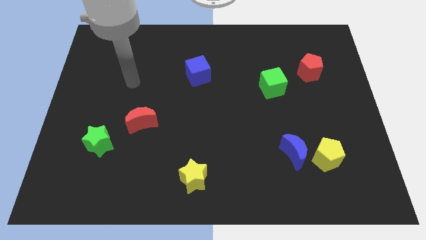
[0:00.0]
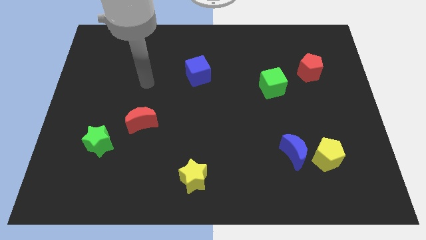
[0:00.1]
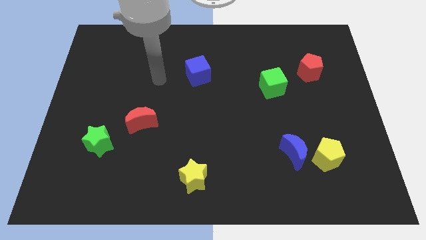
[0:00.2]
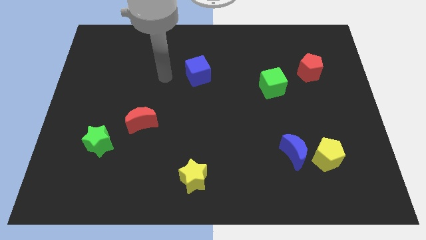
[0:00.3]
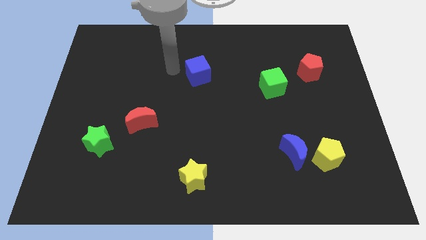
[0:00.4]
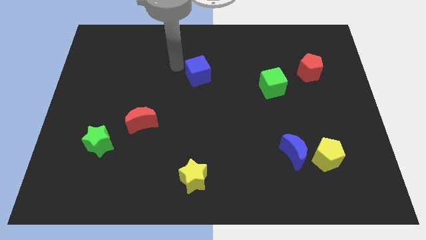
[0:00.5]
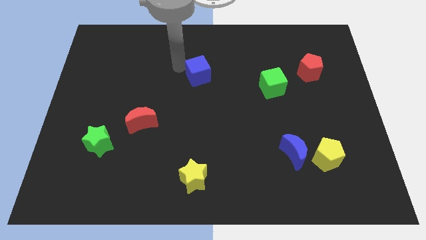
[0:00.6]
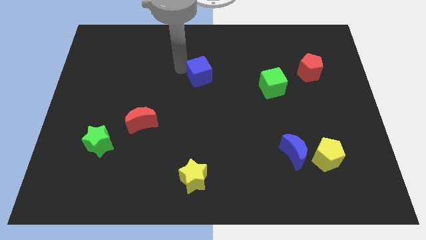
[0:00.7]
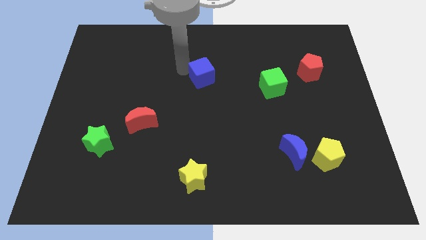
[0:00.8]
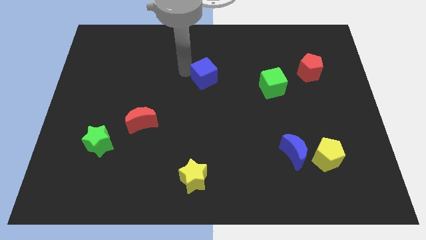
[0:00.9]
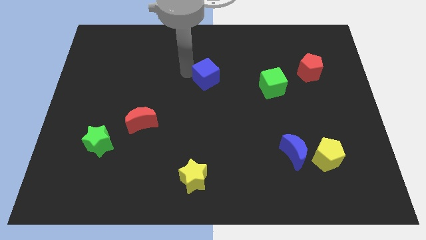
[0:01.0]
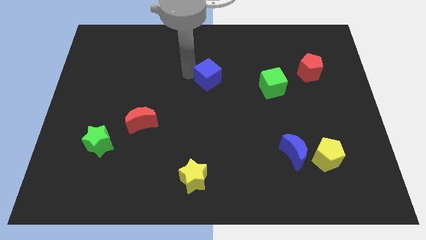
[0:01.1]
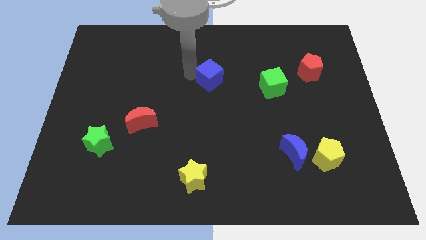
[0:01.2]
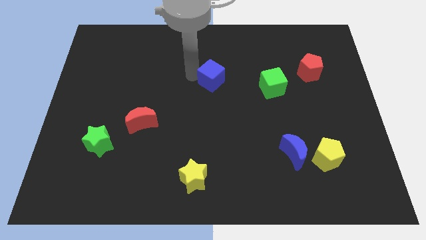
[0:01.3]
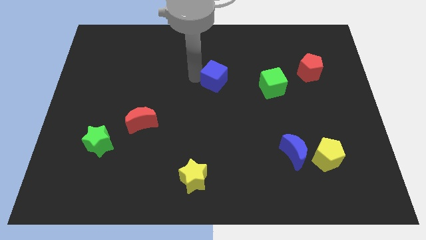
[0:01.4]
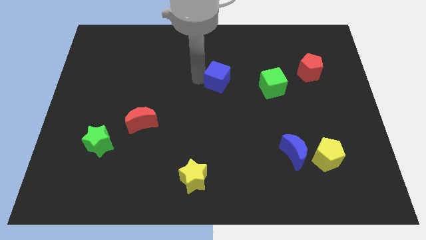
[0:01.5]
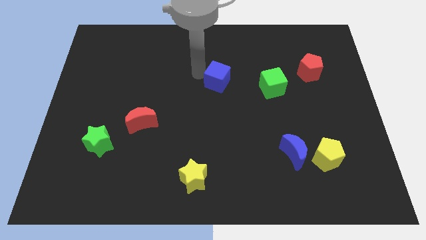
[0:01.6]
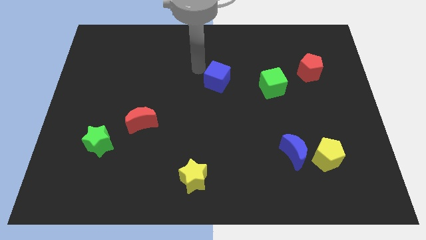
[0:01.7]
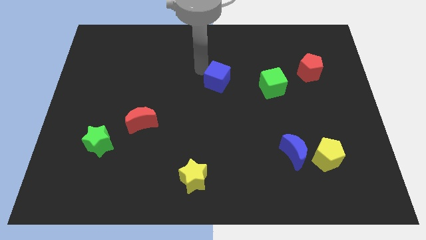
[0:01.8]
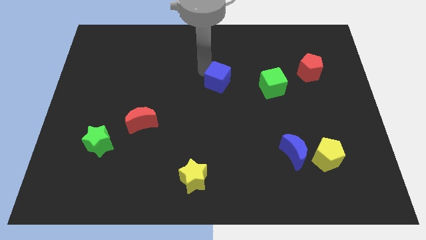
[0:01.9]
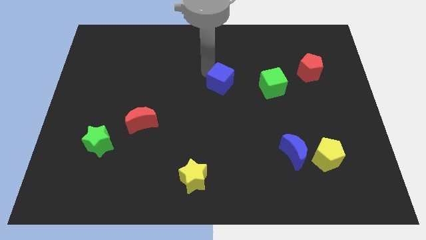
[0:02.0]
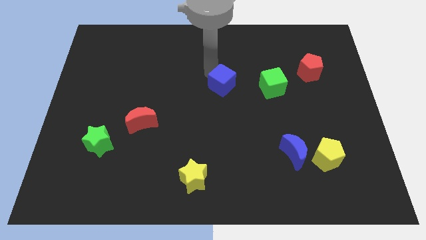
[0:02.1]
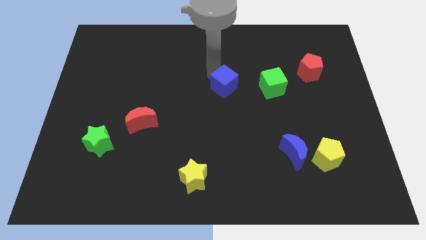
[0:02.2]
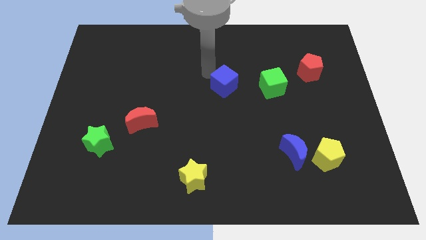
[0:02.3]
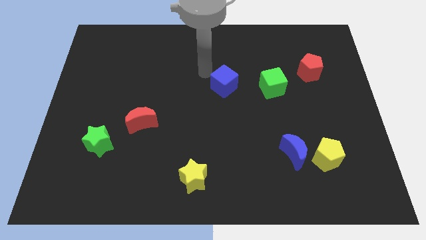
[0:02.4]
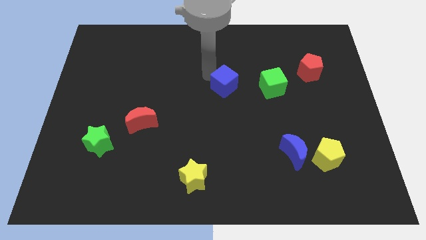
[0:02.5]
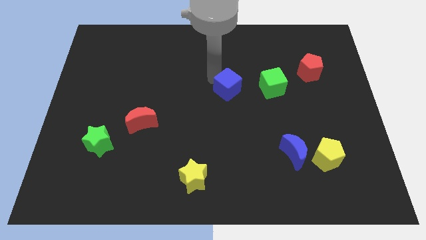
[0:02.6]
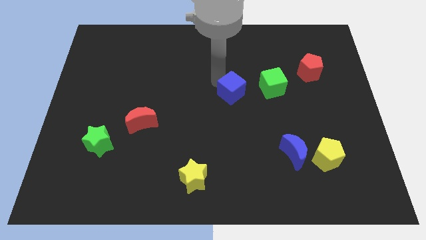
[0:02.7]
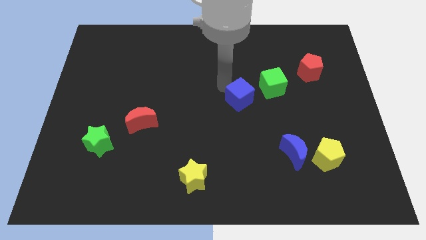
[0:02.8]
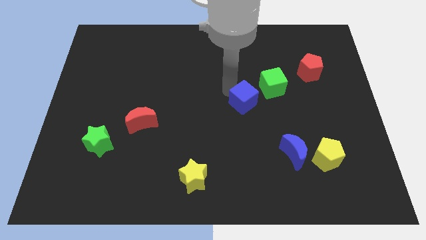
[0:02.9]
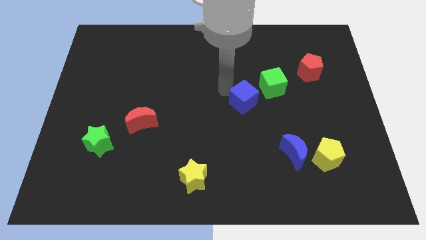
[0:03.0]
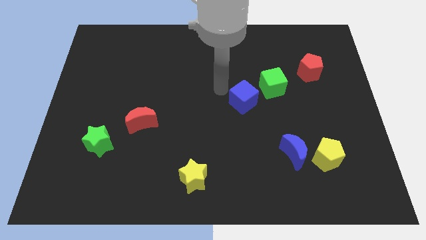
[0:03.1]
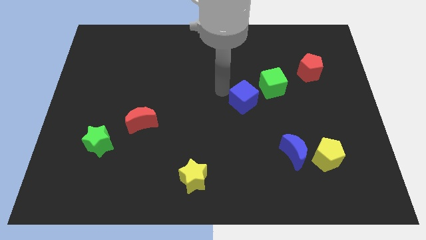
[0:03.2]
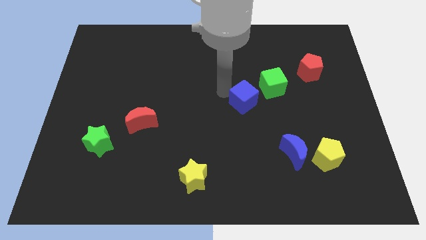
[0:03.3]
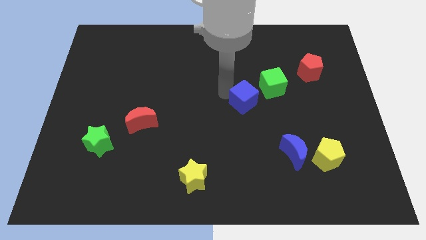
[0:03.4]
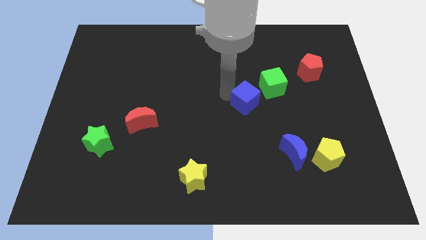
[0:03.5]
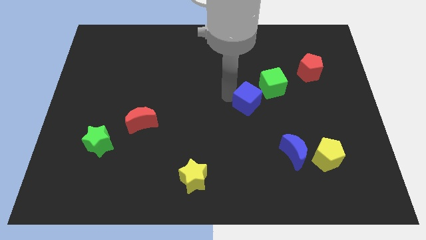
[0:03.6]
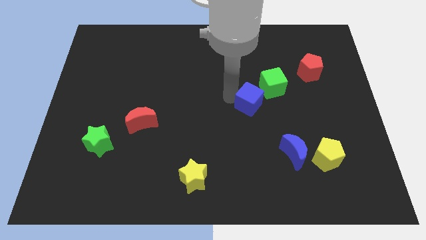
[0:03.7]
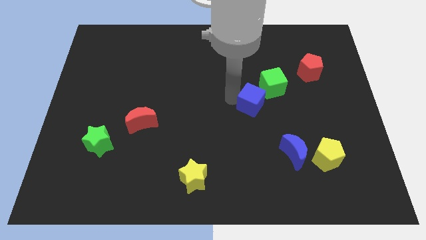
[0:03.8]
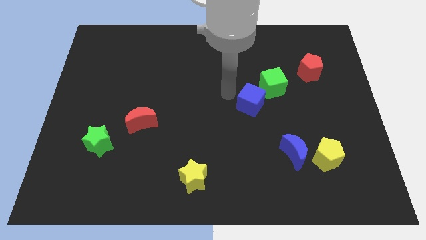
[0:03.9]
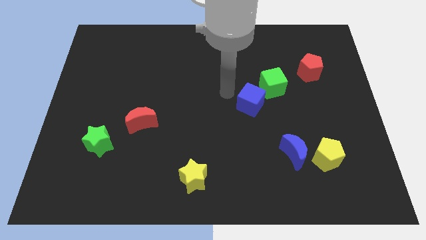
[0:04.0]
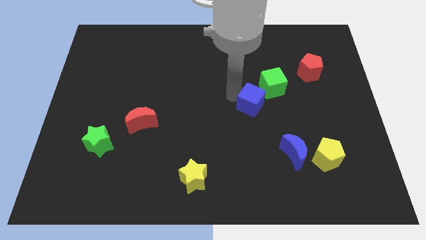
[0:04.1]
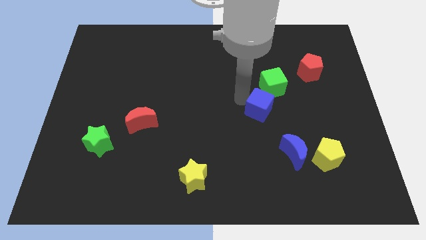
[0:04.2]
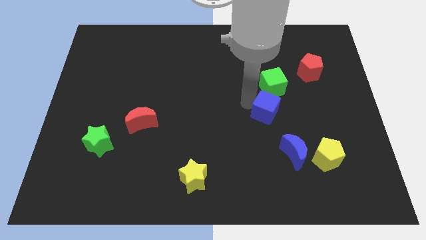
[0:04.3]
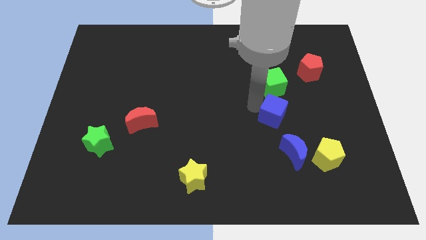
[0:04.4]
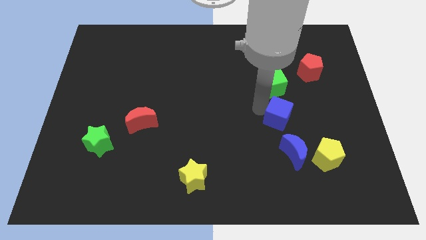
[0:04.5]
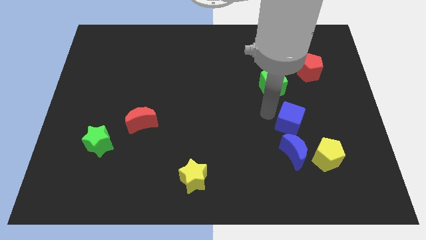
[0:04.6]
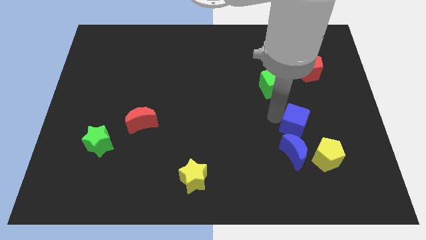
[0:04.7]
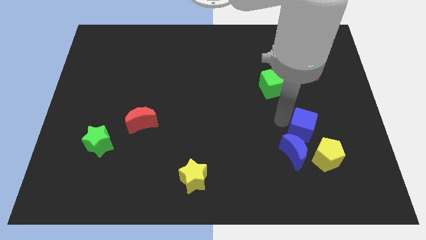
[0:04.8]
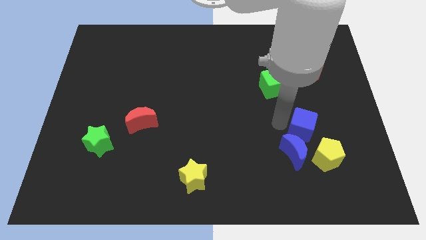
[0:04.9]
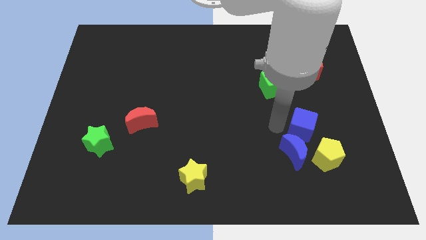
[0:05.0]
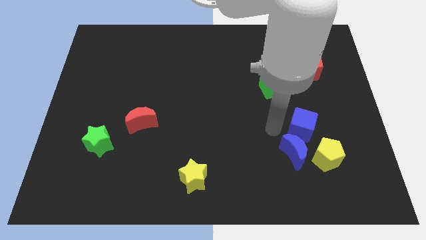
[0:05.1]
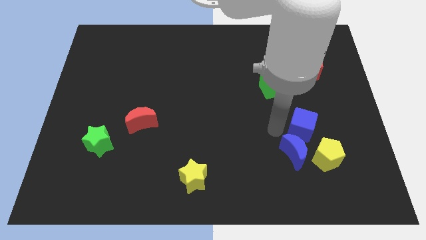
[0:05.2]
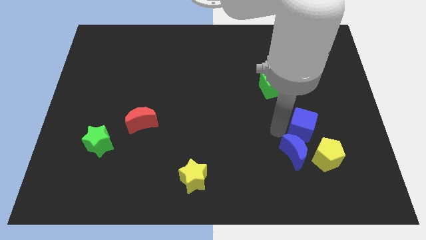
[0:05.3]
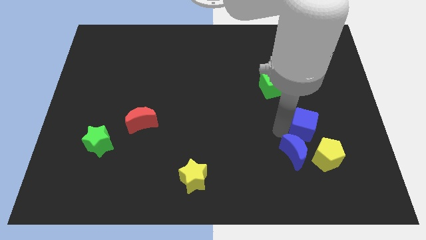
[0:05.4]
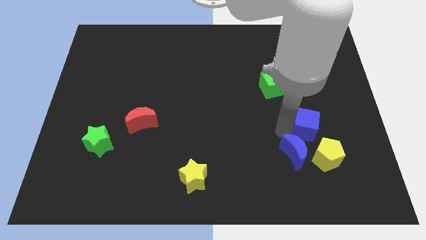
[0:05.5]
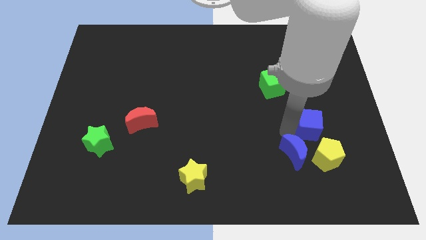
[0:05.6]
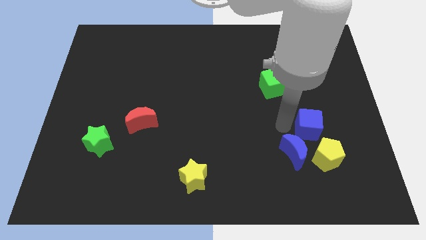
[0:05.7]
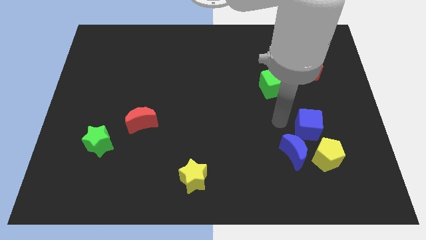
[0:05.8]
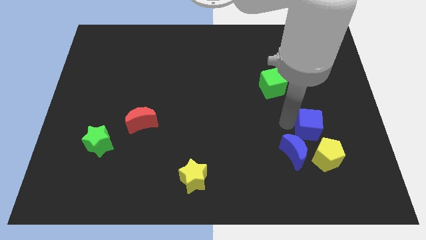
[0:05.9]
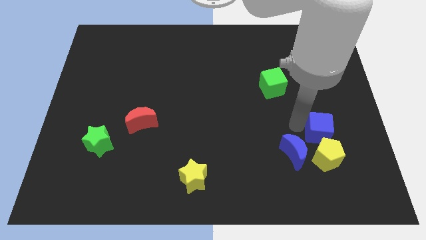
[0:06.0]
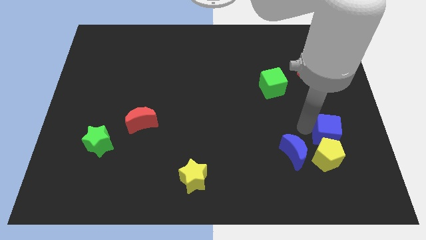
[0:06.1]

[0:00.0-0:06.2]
push the blue cube to the top right of the yellow pentagon
